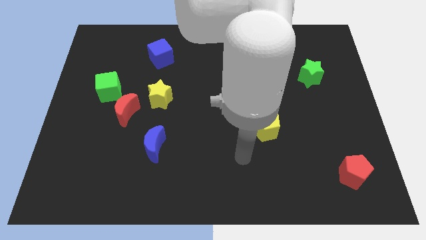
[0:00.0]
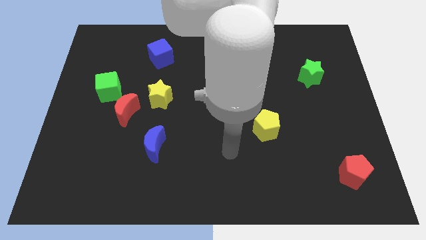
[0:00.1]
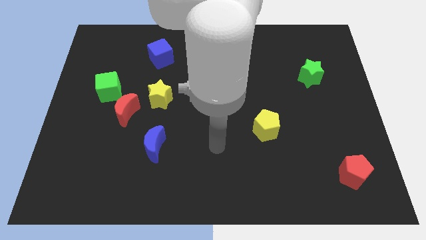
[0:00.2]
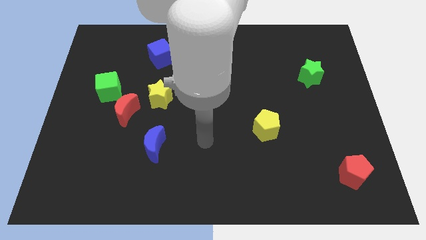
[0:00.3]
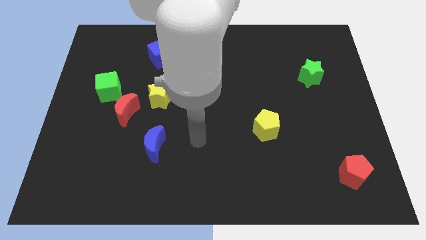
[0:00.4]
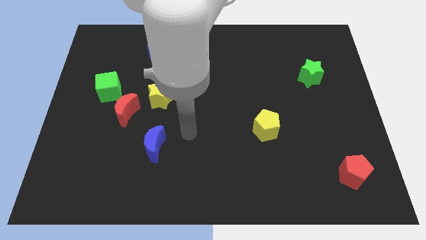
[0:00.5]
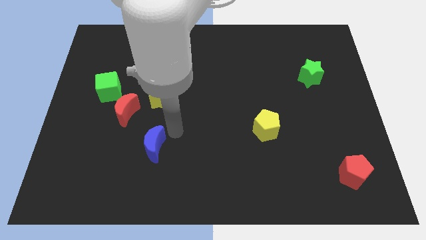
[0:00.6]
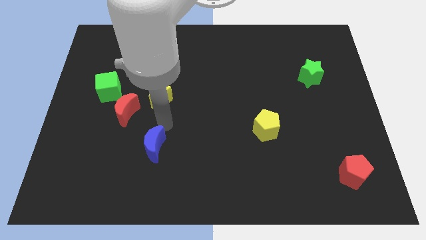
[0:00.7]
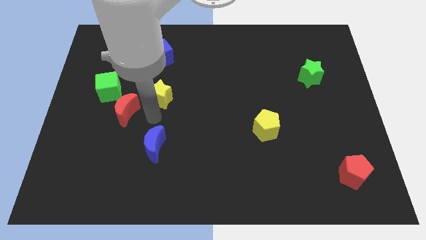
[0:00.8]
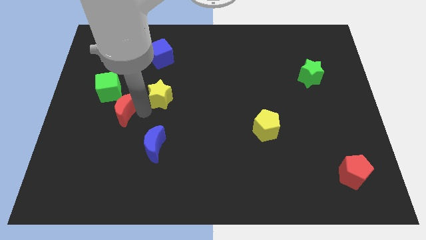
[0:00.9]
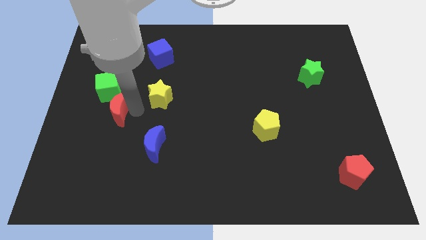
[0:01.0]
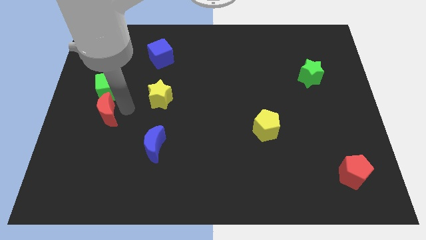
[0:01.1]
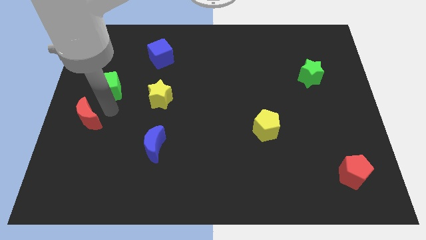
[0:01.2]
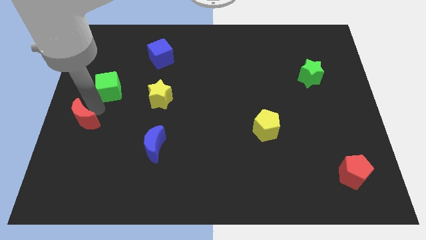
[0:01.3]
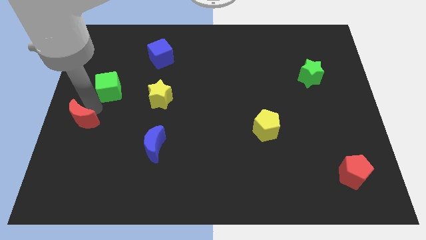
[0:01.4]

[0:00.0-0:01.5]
separate the green cube from the red moon

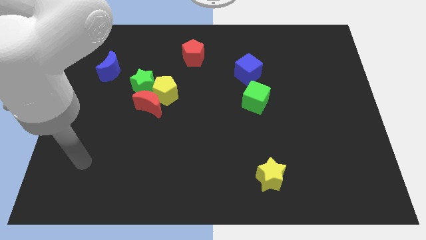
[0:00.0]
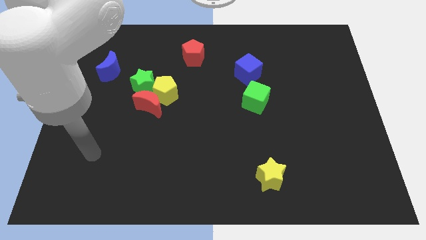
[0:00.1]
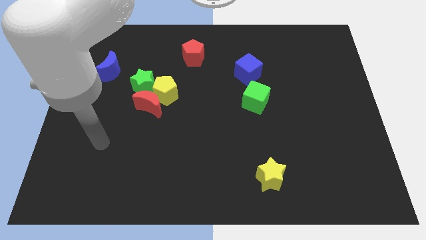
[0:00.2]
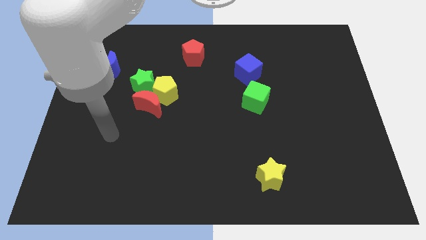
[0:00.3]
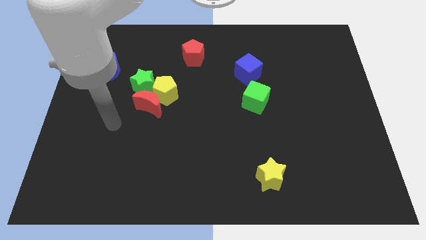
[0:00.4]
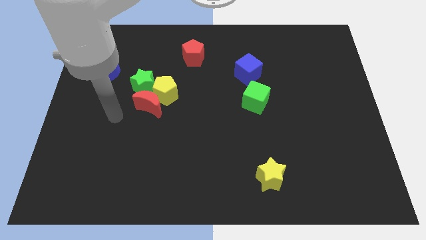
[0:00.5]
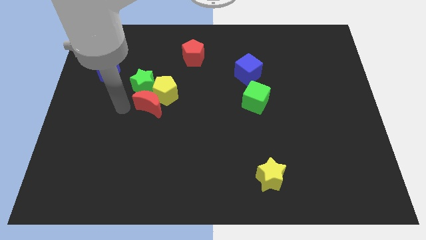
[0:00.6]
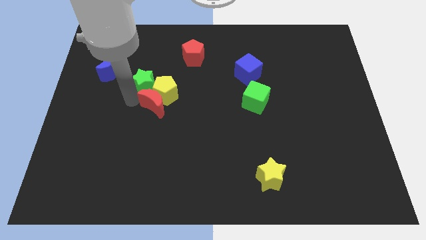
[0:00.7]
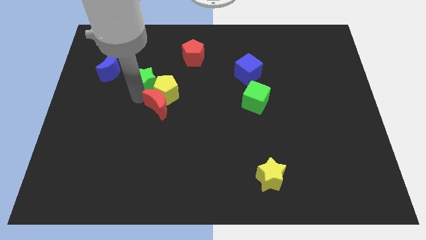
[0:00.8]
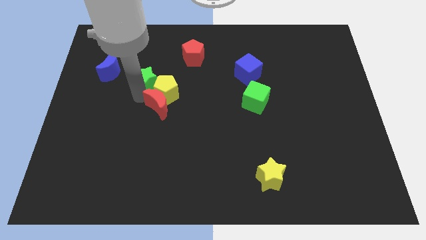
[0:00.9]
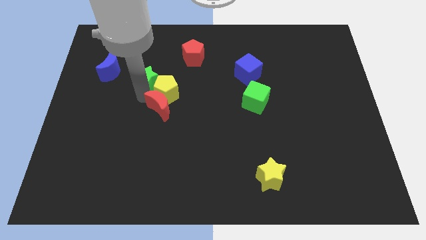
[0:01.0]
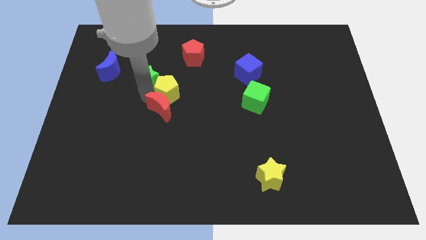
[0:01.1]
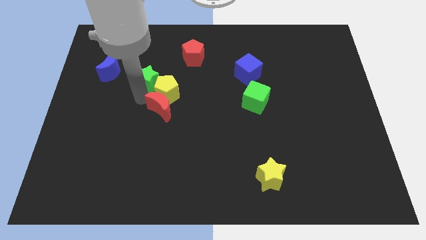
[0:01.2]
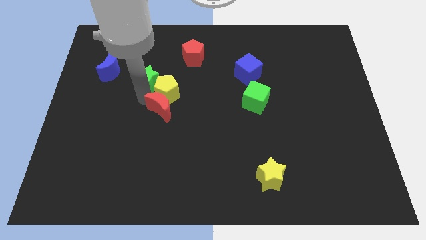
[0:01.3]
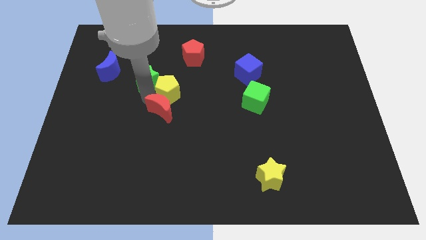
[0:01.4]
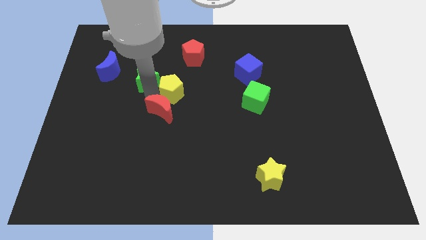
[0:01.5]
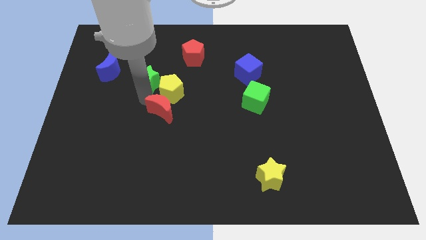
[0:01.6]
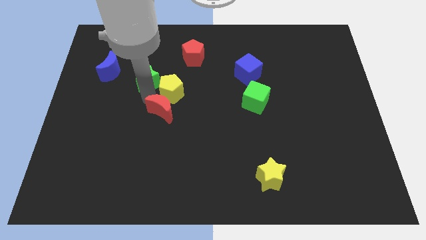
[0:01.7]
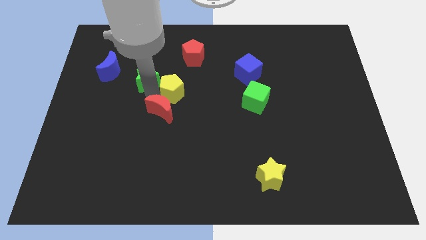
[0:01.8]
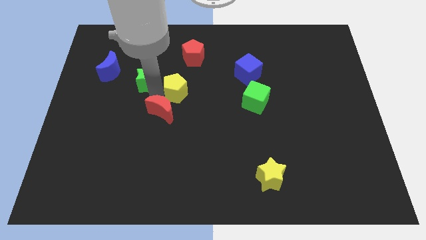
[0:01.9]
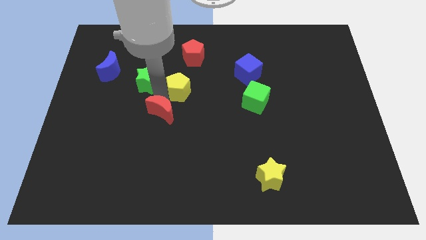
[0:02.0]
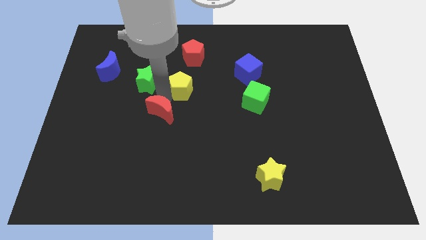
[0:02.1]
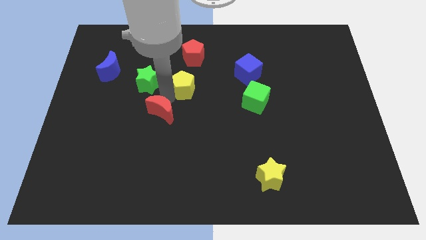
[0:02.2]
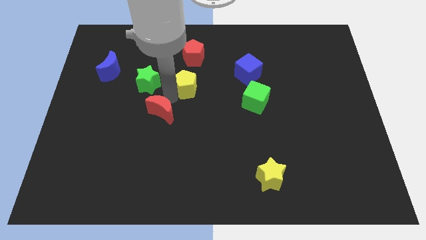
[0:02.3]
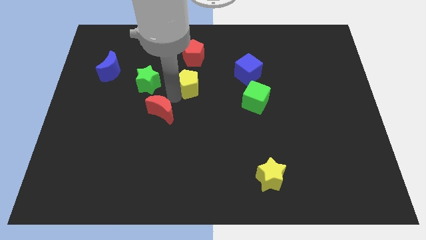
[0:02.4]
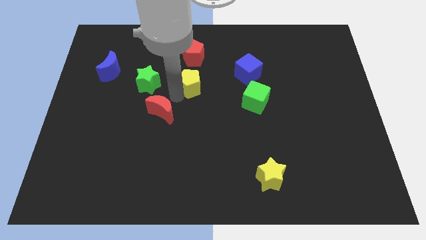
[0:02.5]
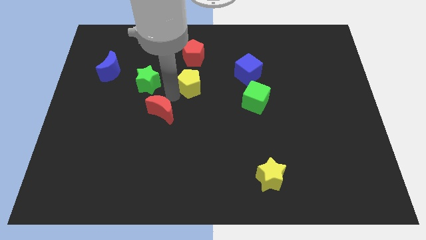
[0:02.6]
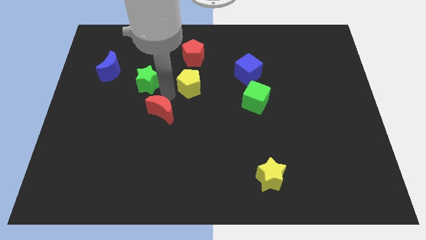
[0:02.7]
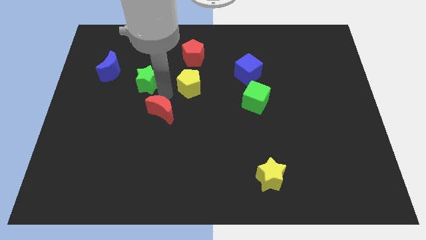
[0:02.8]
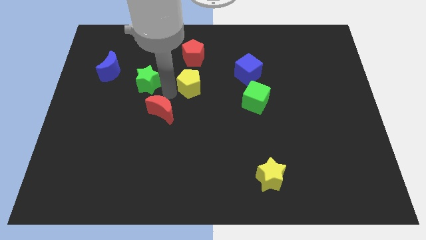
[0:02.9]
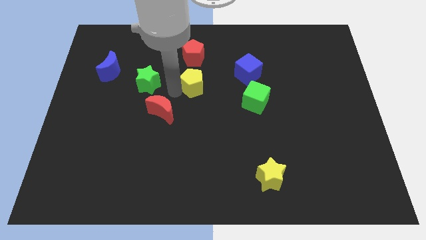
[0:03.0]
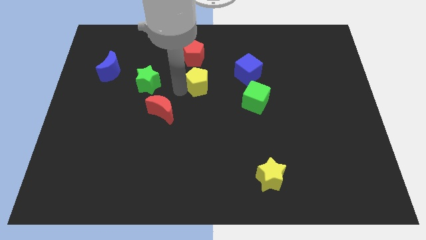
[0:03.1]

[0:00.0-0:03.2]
move the yellow pentagon away from the red moon and green star

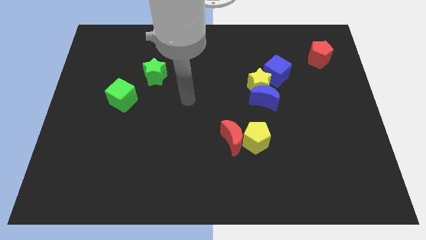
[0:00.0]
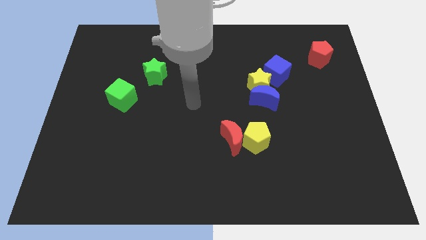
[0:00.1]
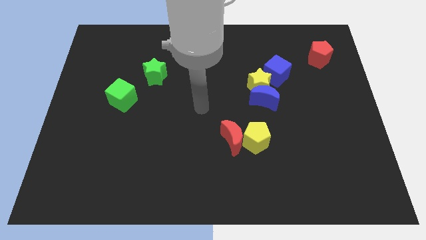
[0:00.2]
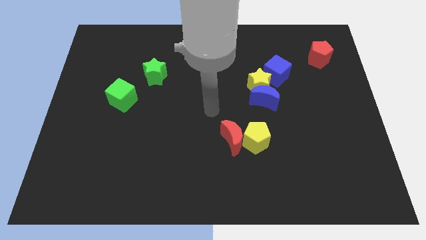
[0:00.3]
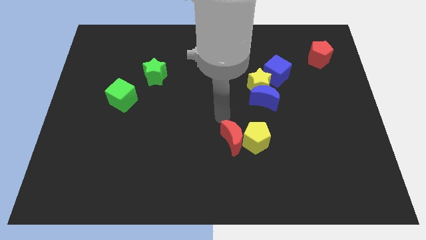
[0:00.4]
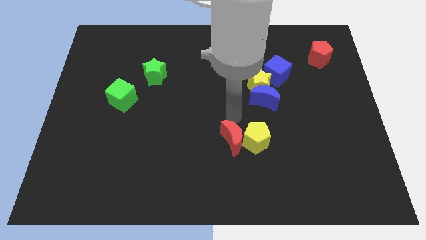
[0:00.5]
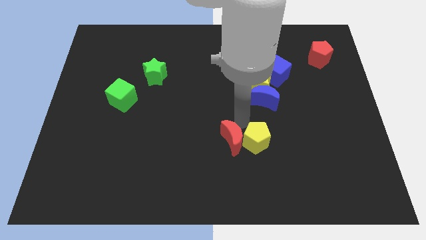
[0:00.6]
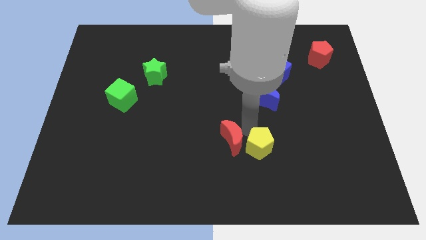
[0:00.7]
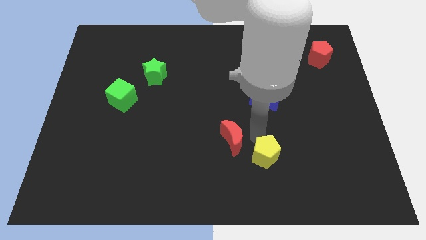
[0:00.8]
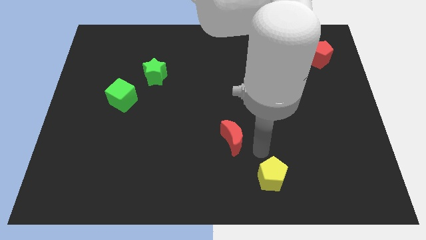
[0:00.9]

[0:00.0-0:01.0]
move the red moon away from the yellow pentagon

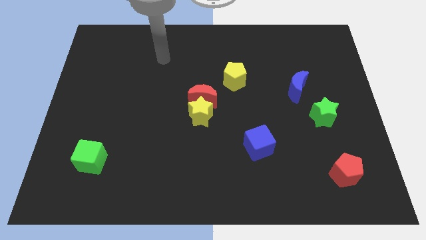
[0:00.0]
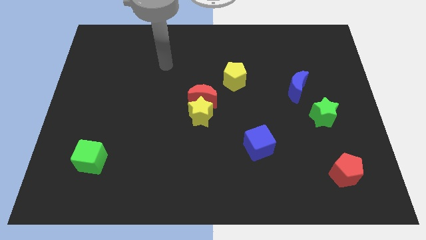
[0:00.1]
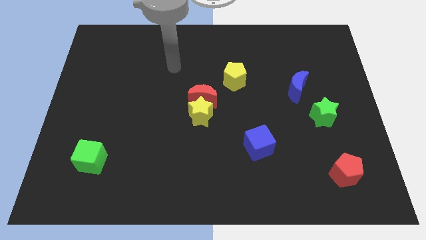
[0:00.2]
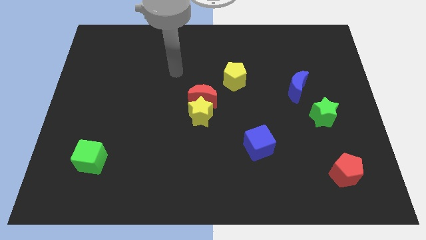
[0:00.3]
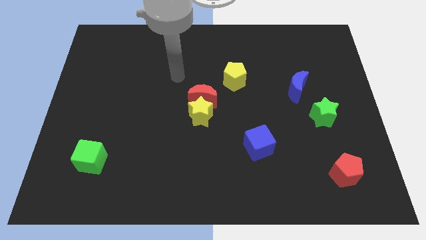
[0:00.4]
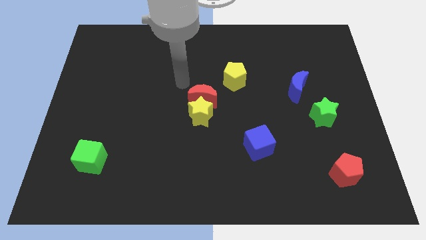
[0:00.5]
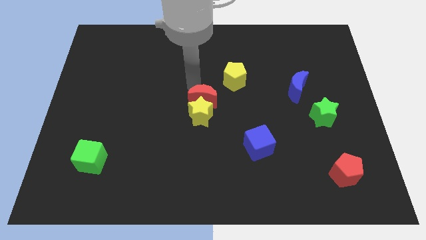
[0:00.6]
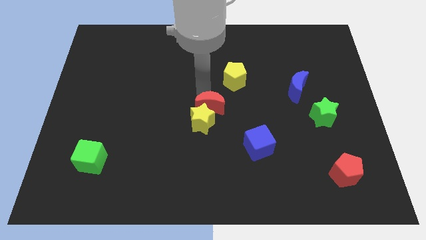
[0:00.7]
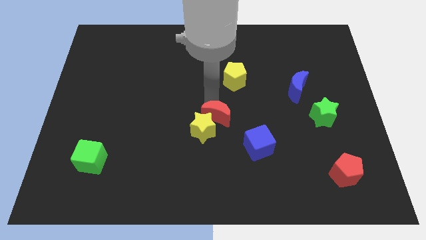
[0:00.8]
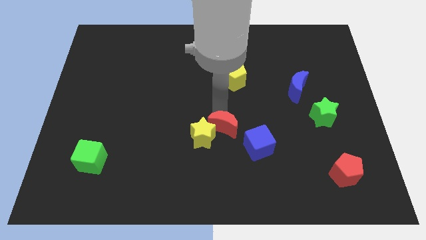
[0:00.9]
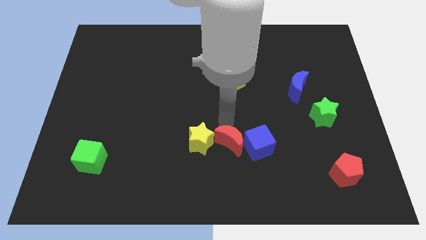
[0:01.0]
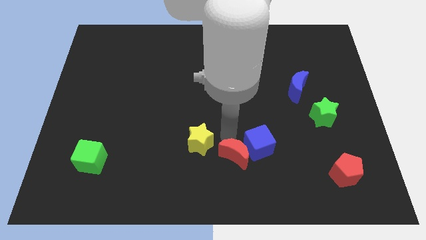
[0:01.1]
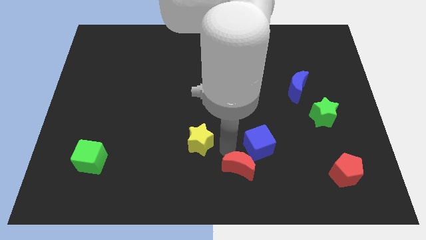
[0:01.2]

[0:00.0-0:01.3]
separate the yellow star from the red moon

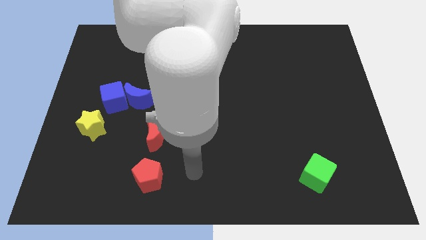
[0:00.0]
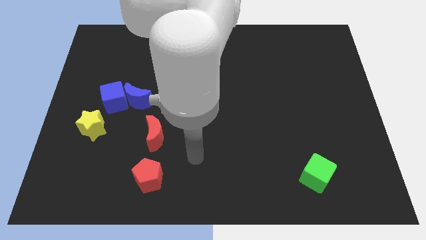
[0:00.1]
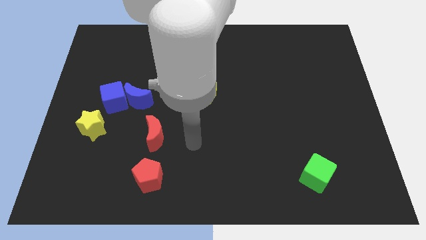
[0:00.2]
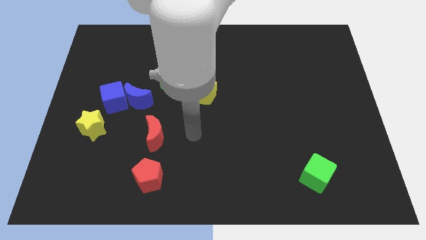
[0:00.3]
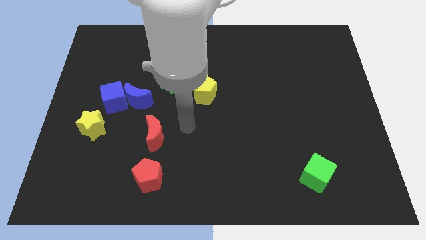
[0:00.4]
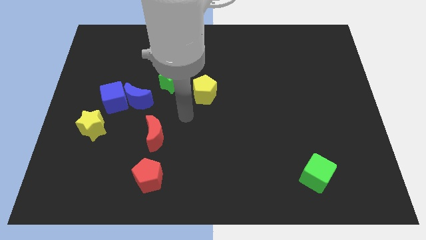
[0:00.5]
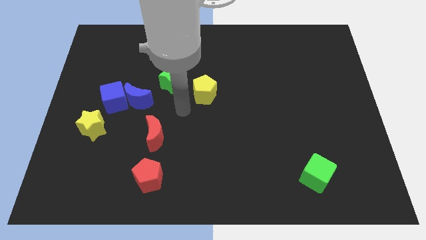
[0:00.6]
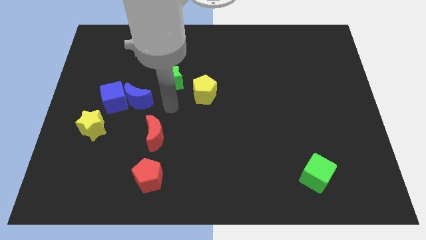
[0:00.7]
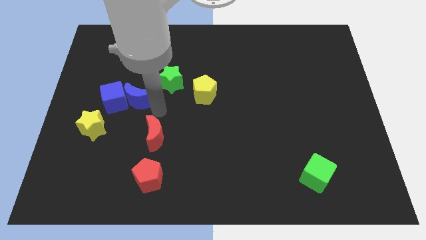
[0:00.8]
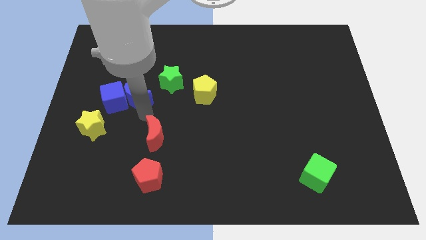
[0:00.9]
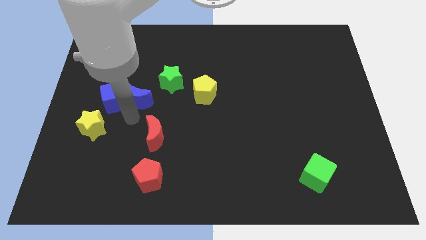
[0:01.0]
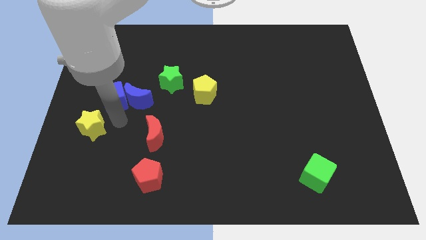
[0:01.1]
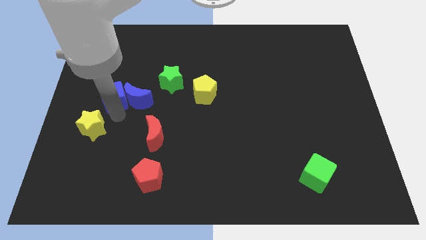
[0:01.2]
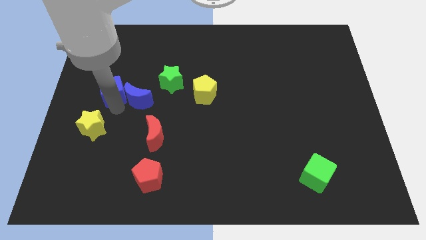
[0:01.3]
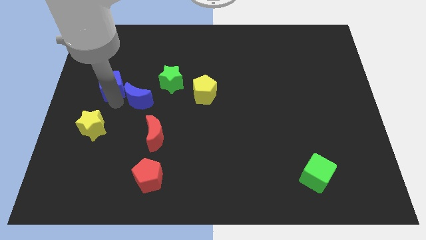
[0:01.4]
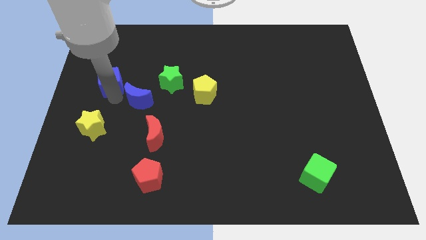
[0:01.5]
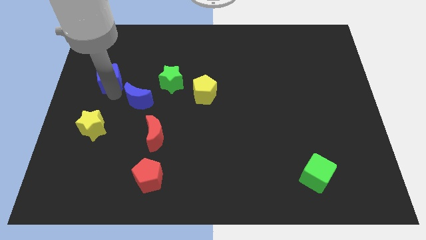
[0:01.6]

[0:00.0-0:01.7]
pull the blue cube apart from the blue moon and yellow star

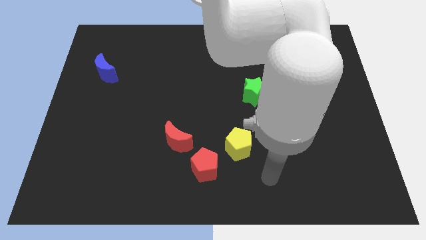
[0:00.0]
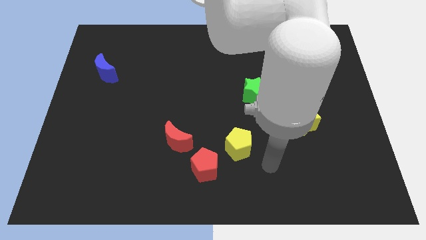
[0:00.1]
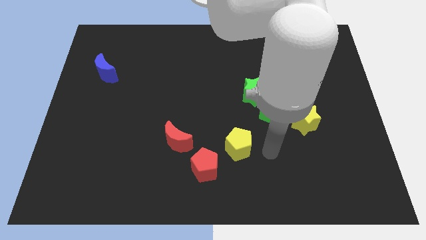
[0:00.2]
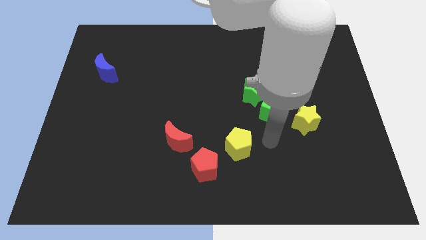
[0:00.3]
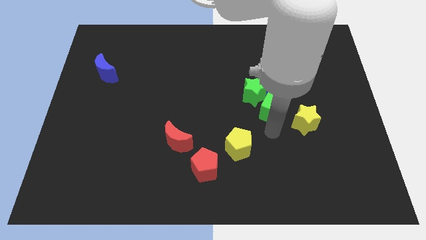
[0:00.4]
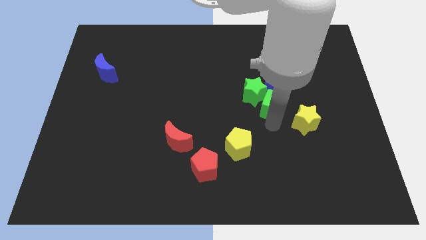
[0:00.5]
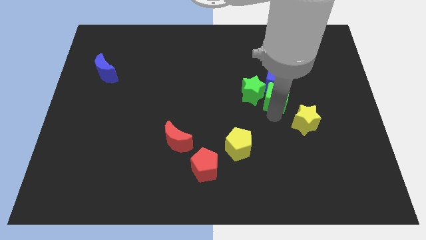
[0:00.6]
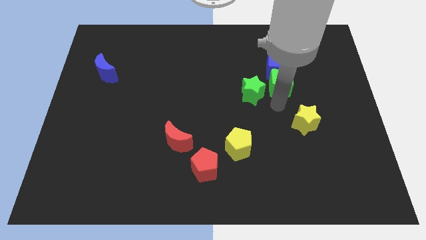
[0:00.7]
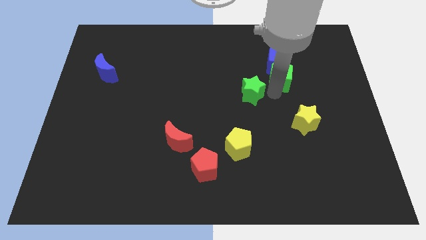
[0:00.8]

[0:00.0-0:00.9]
pull the green star apart from the blue cube and green cube
